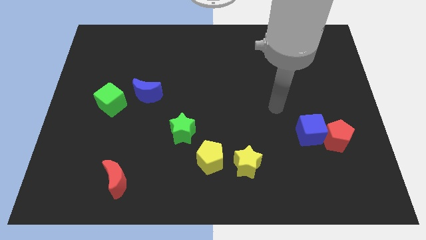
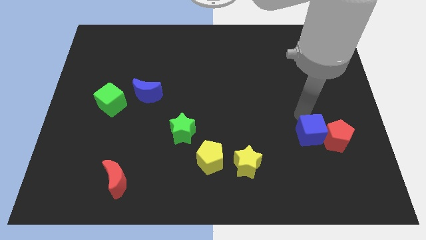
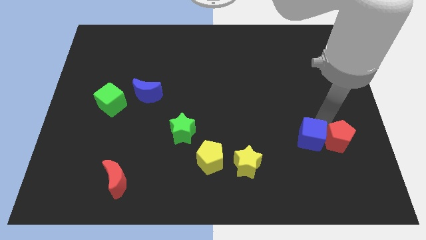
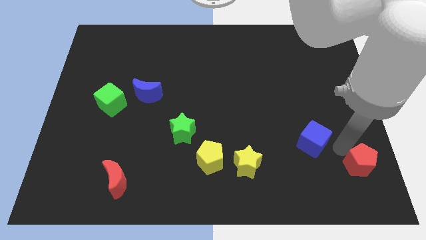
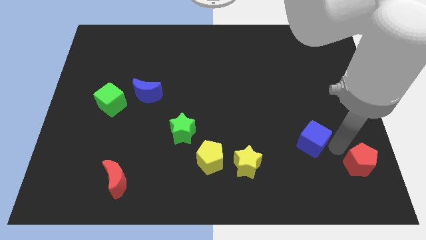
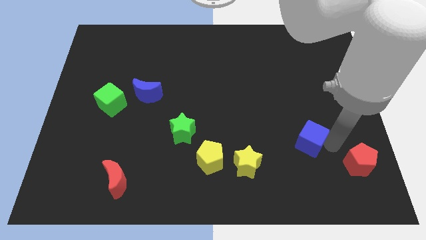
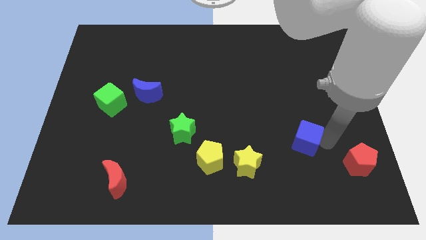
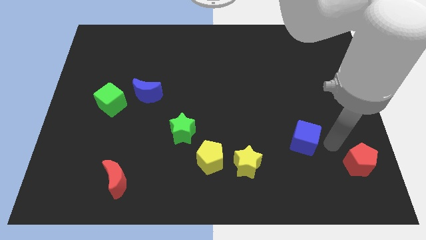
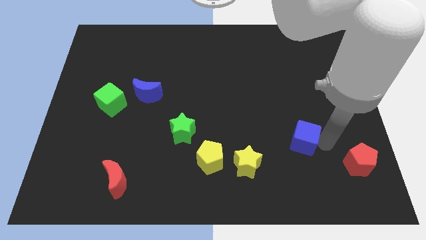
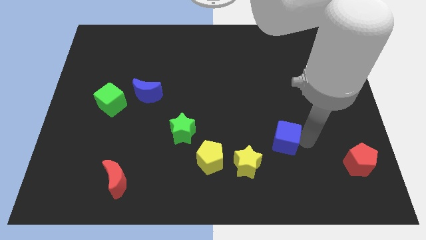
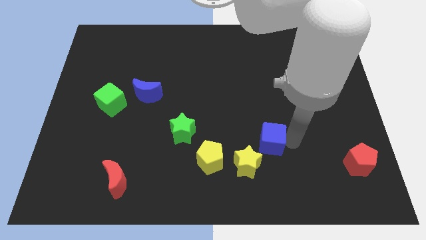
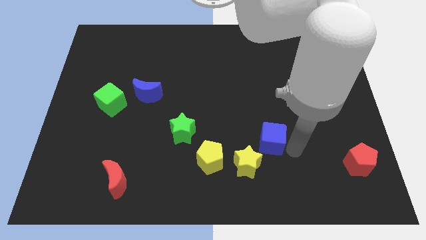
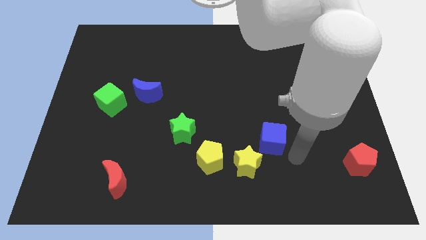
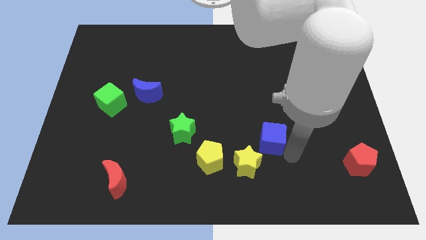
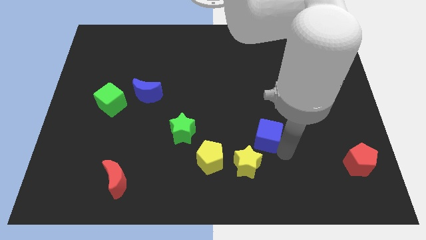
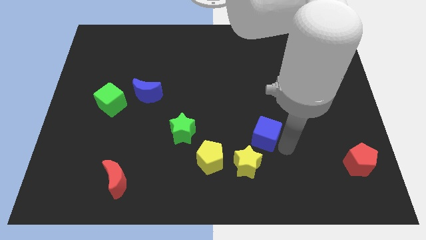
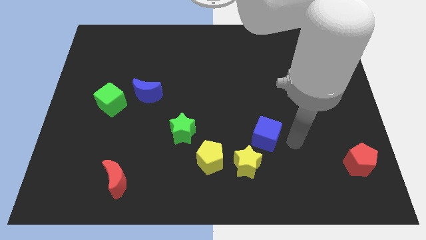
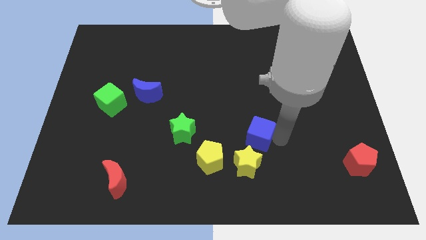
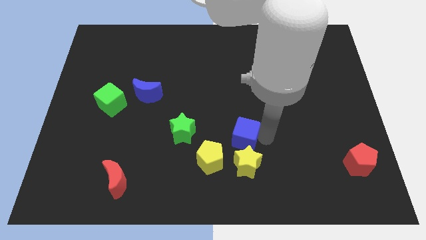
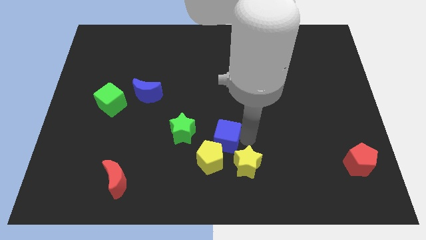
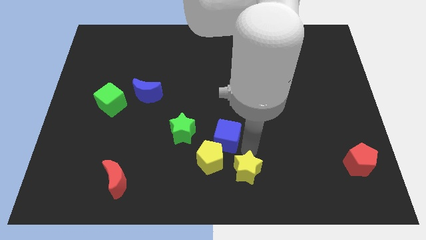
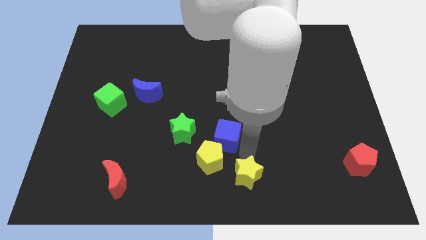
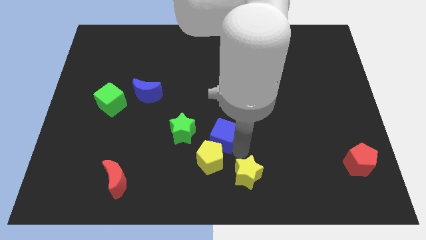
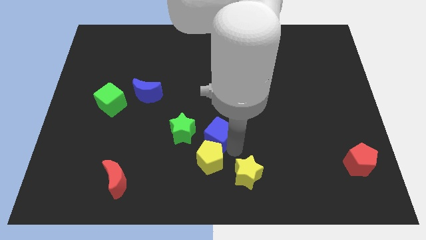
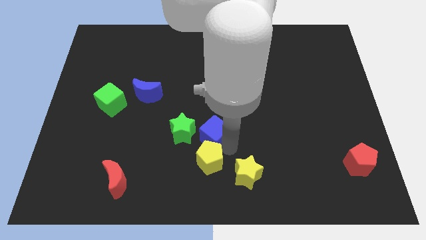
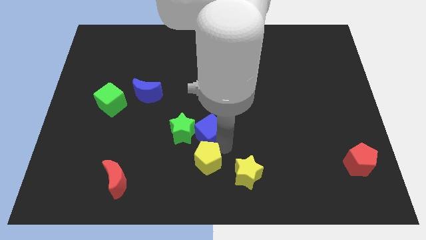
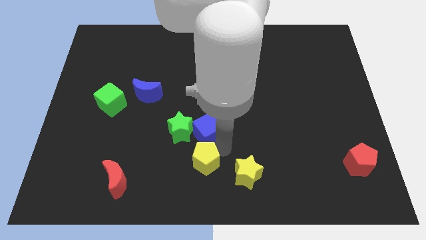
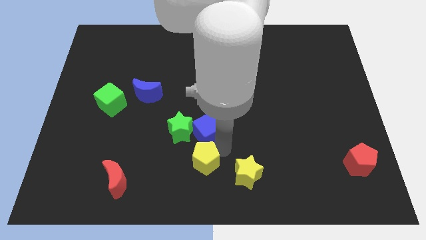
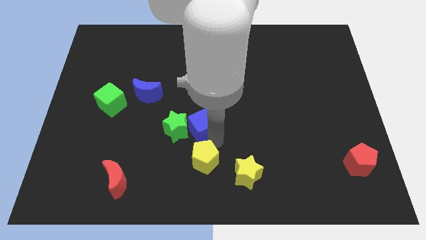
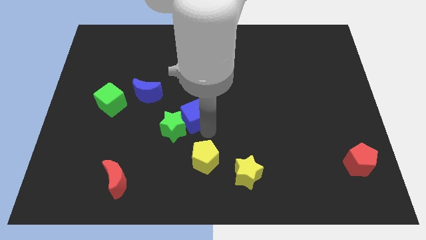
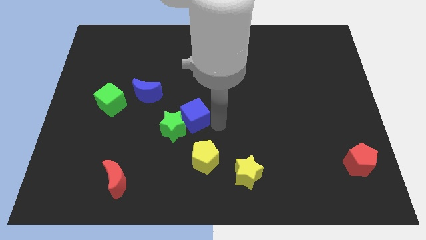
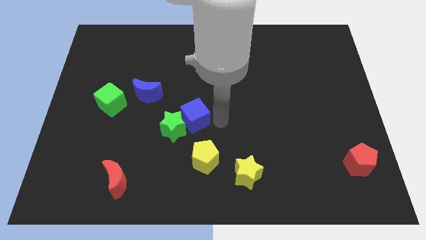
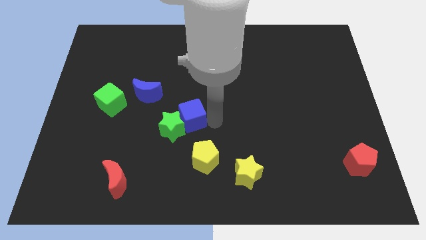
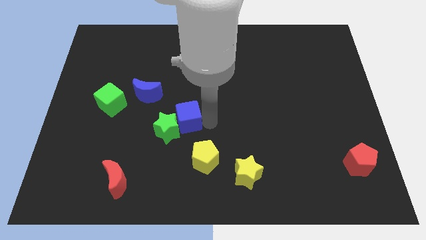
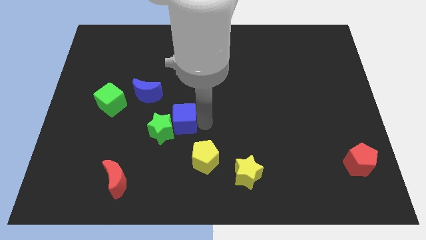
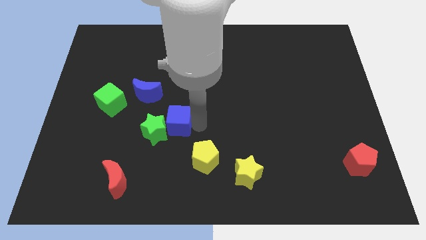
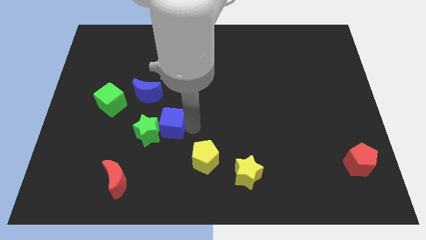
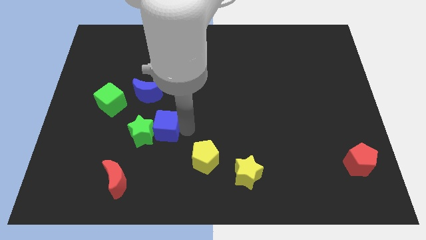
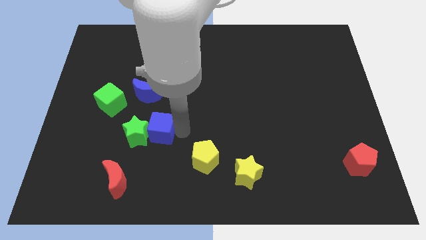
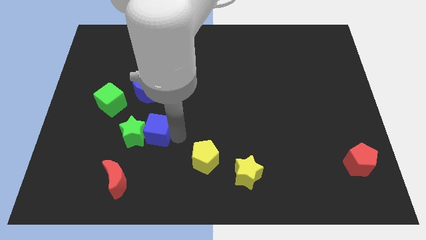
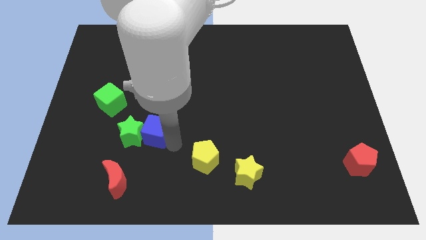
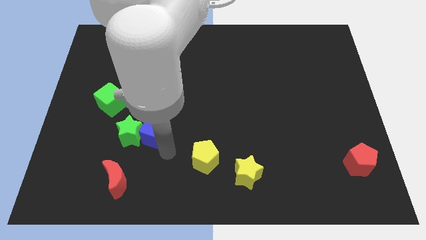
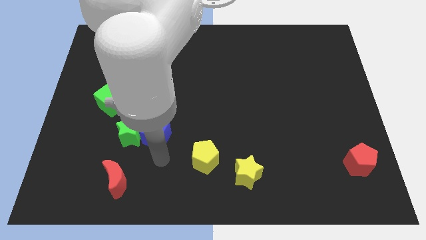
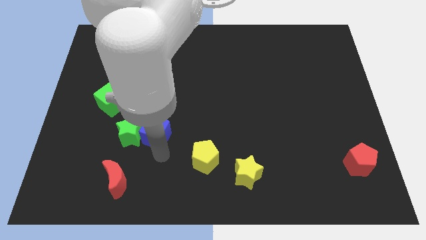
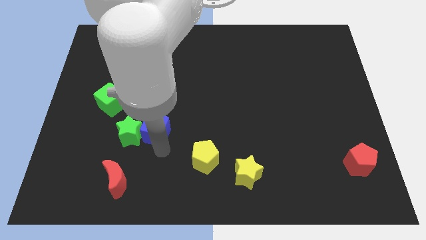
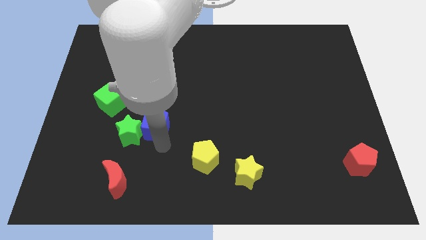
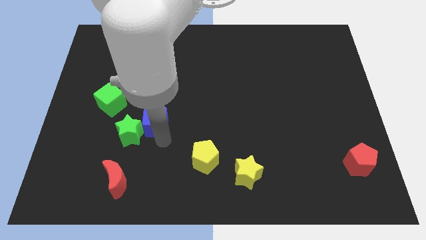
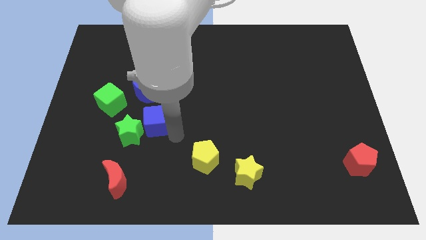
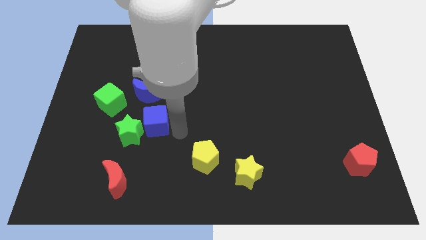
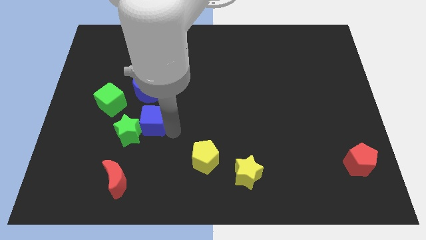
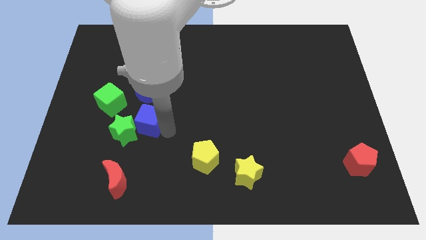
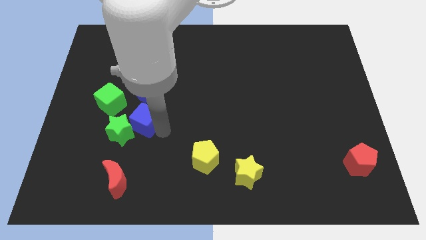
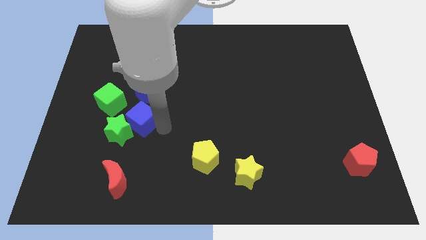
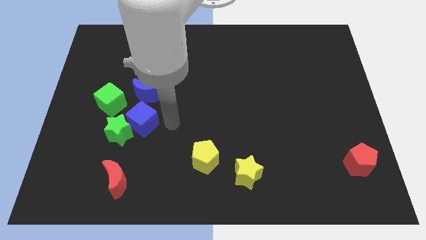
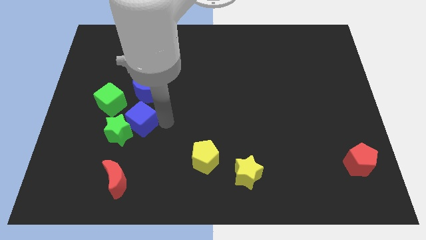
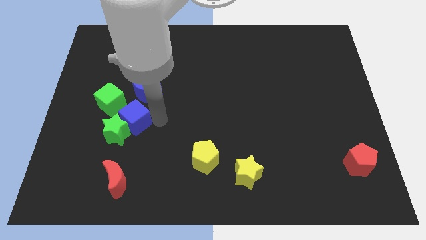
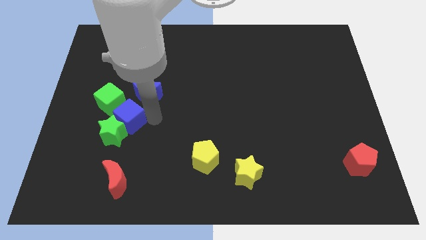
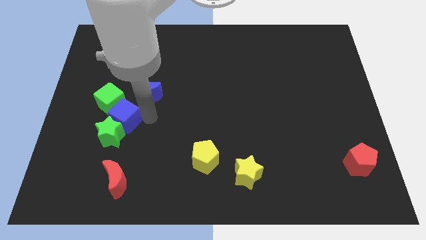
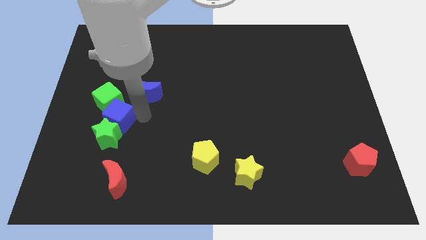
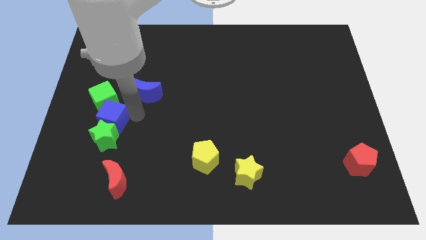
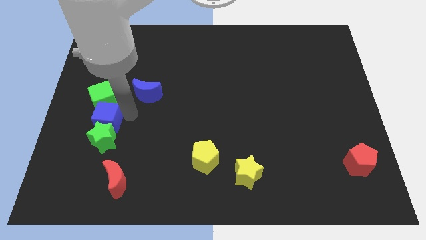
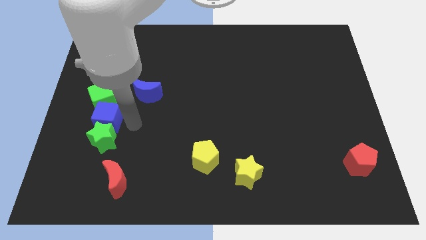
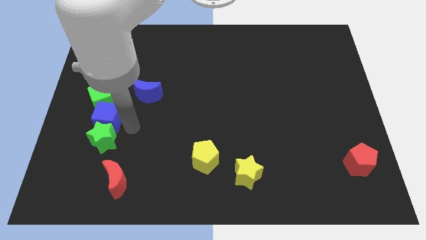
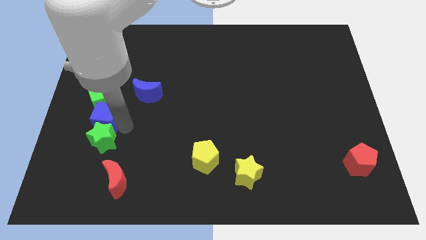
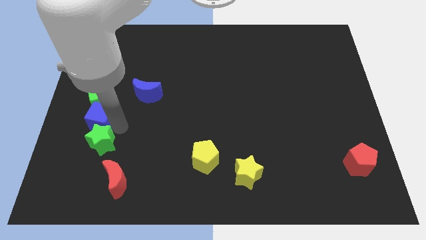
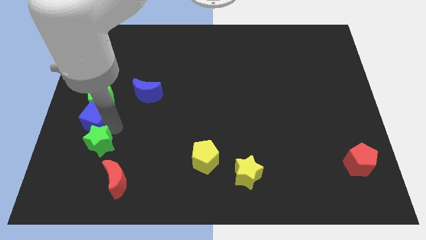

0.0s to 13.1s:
slide the blue cube to the left side
